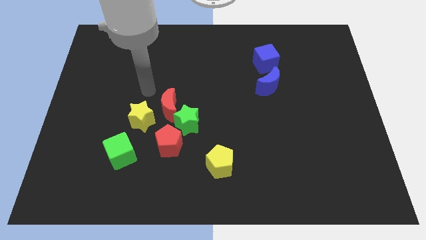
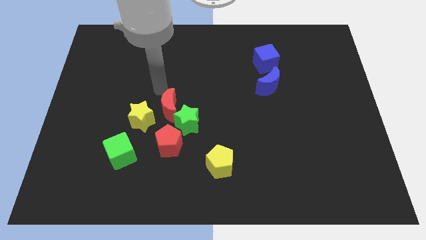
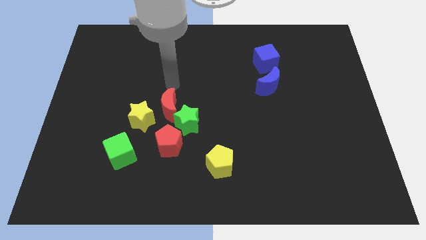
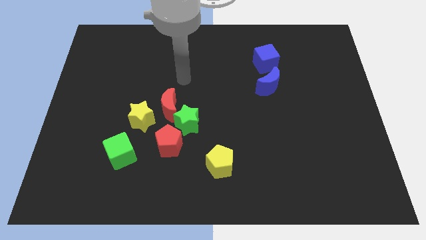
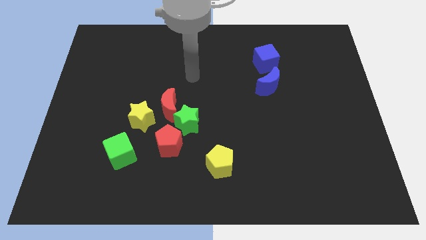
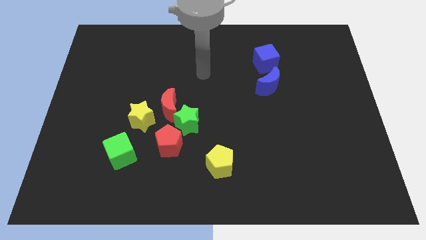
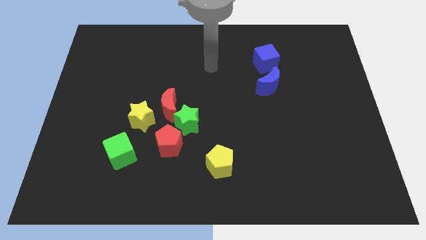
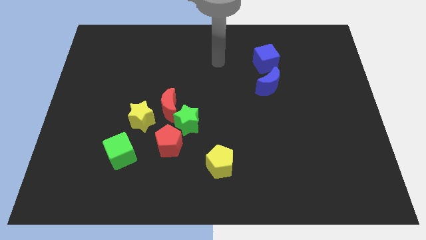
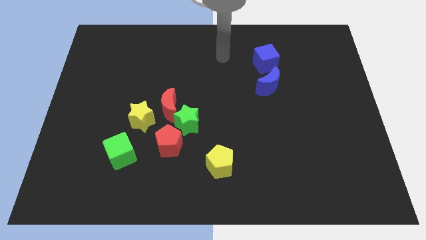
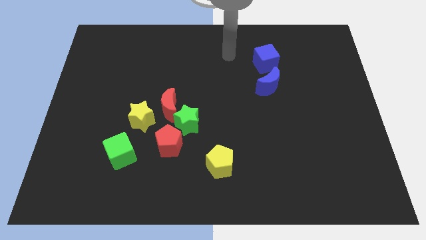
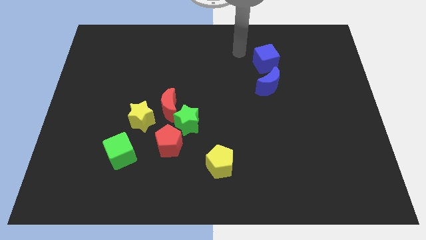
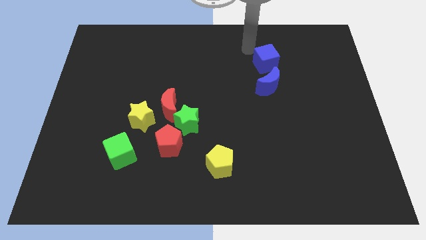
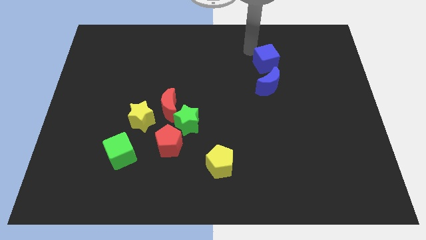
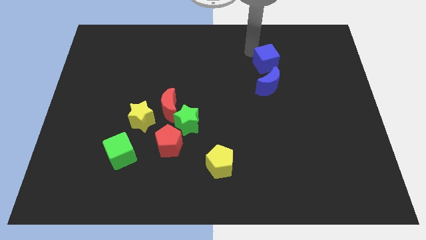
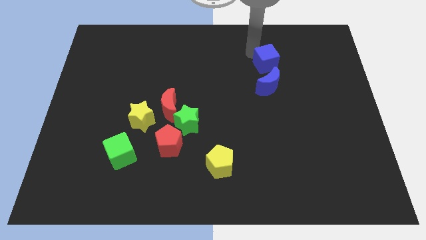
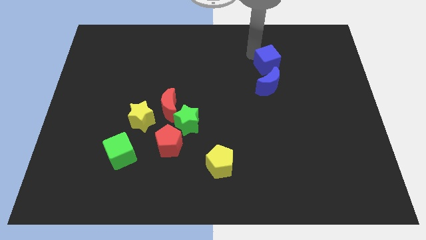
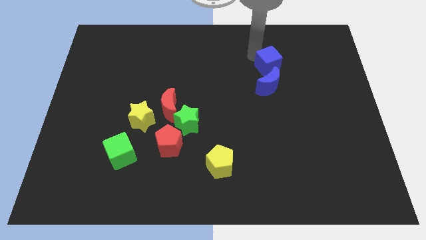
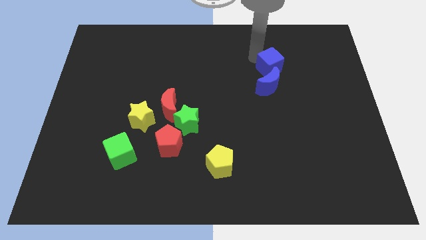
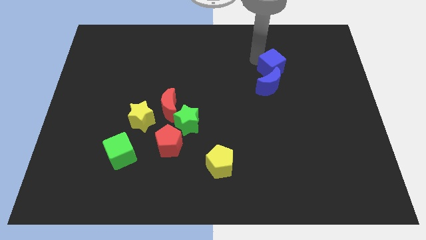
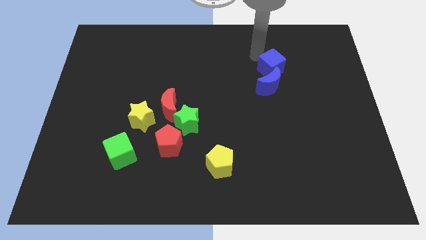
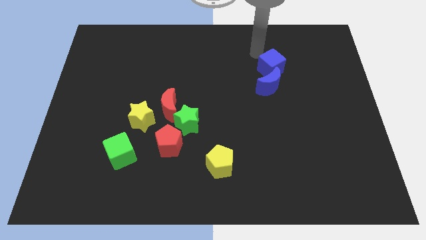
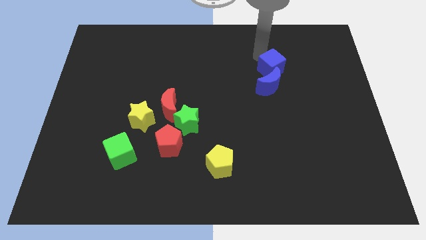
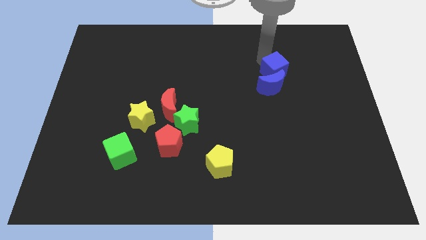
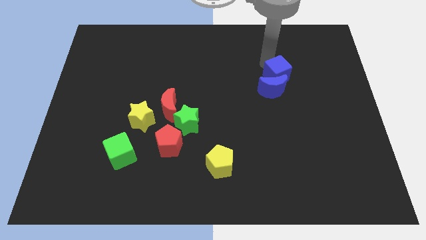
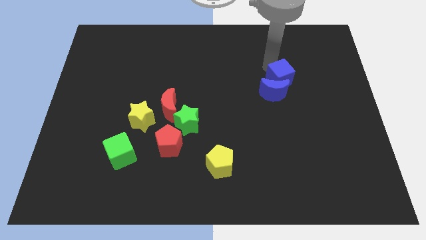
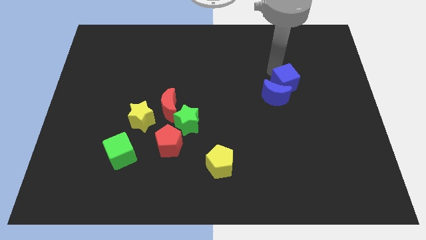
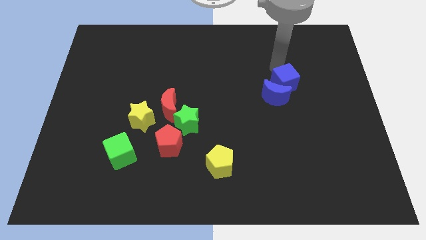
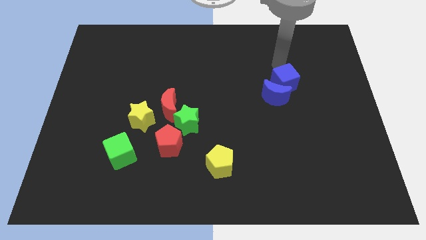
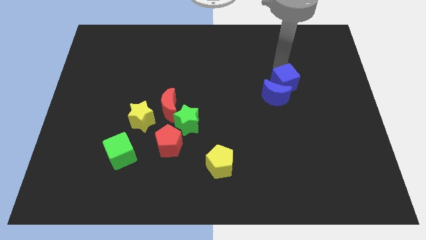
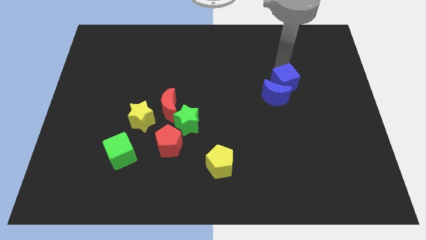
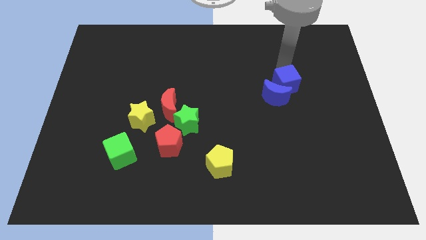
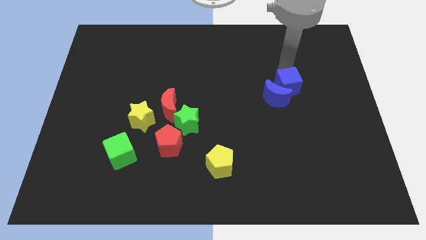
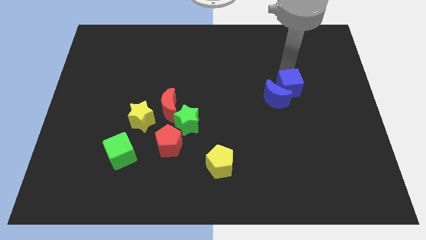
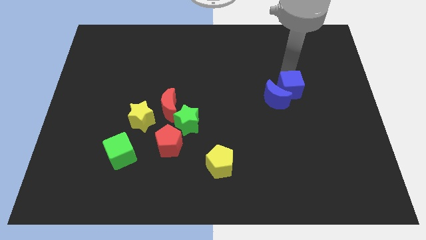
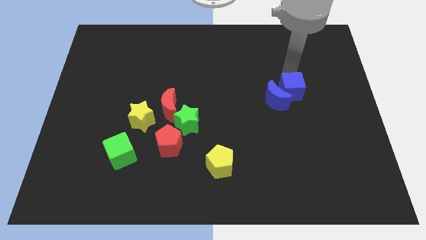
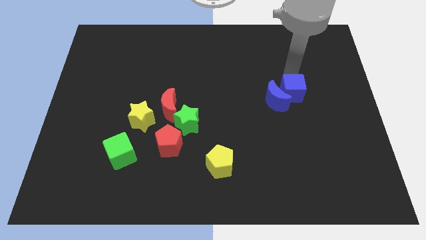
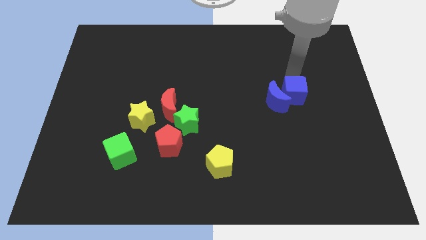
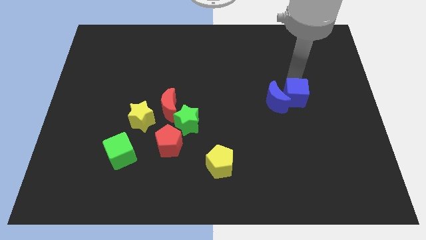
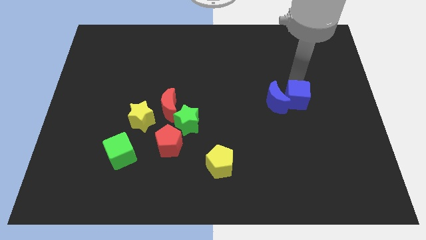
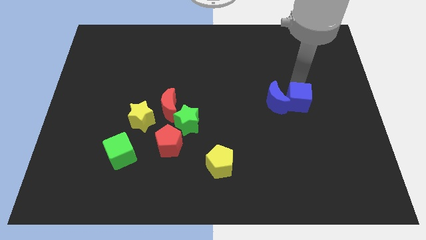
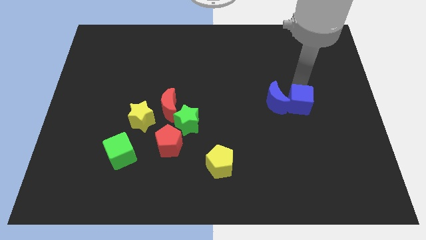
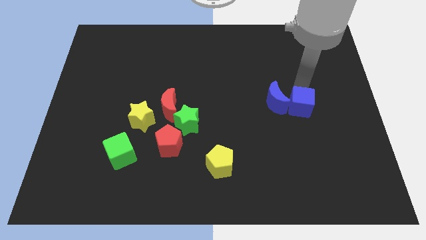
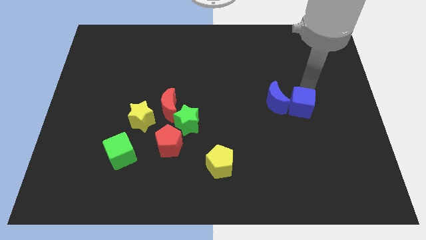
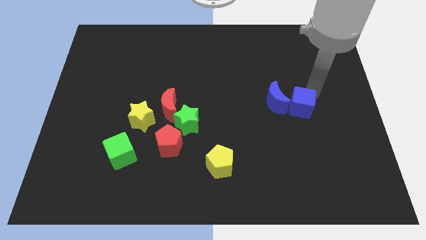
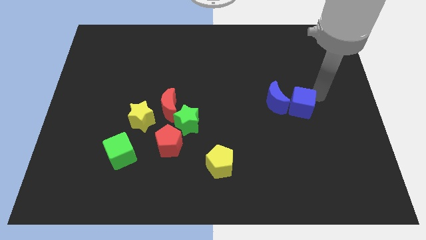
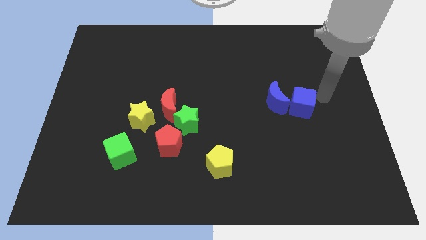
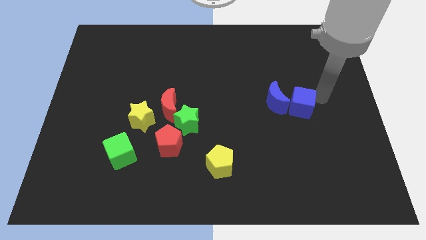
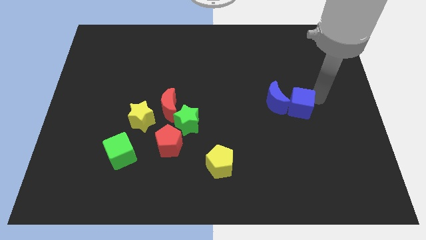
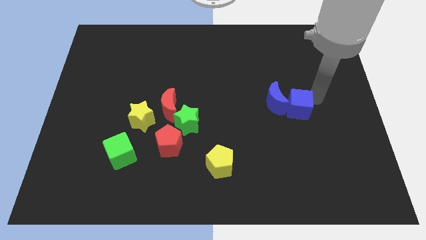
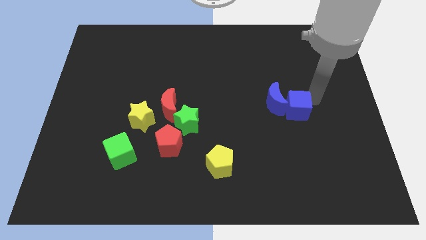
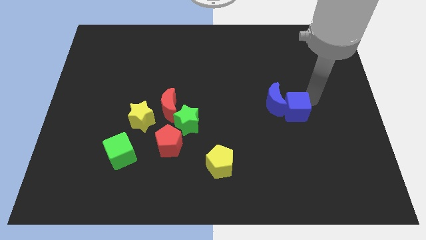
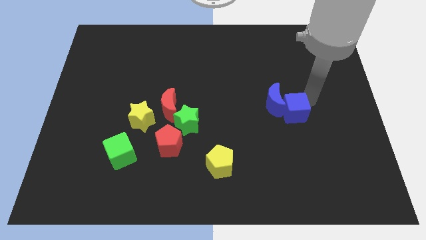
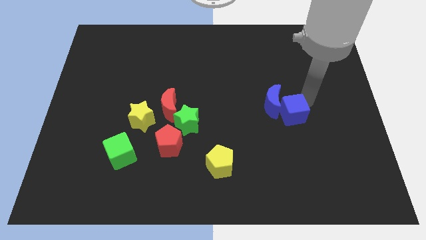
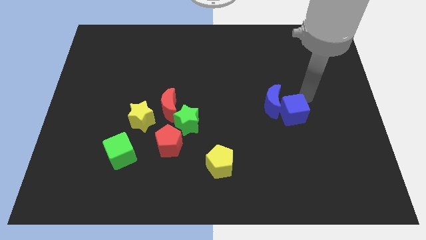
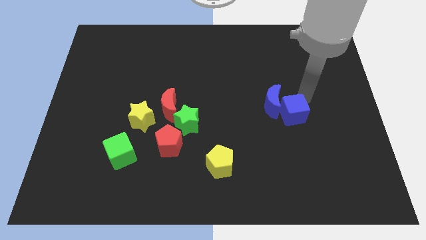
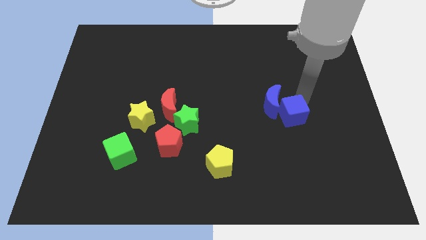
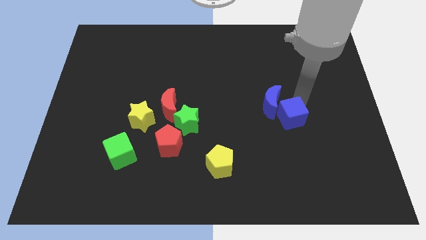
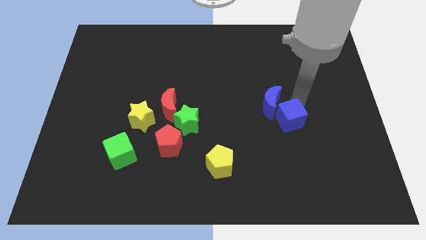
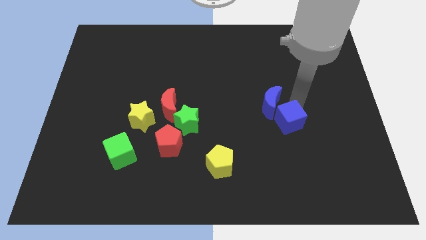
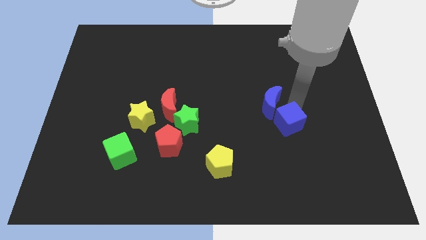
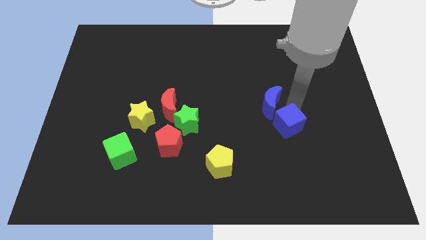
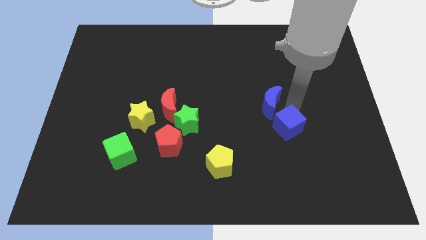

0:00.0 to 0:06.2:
move the blue cube down

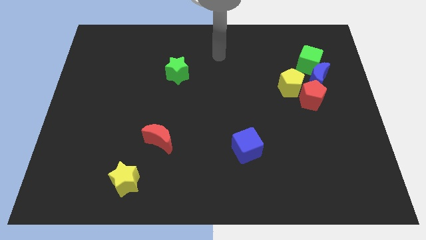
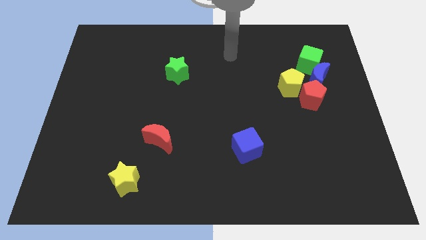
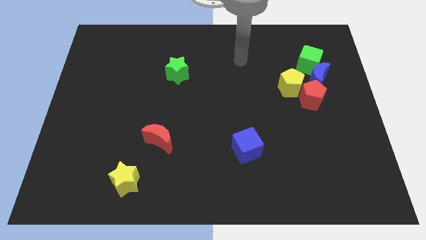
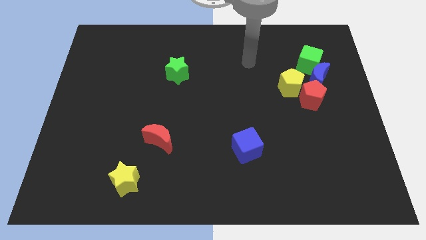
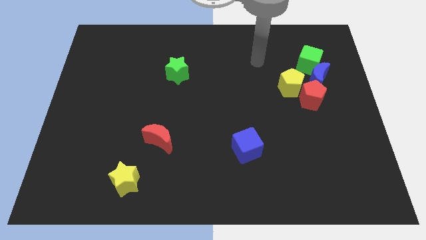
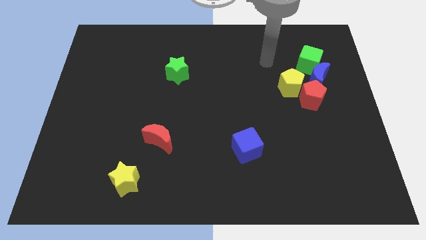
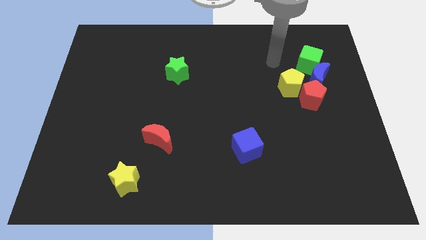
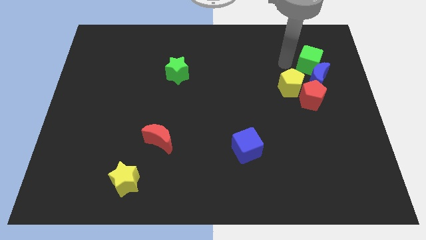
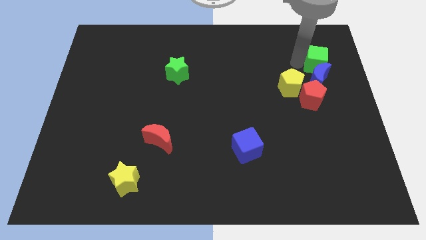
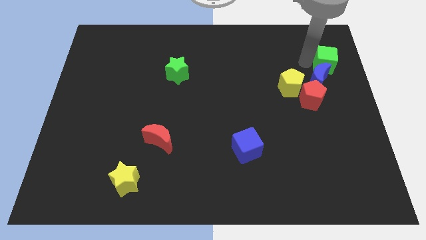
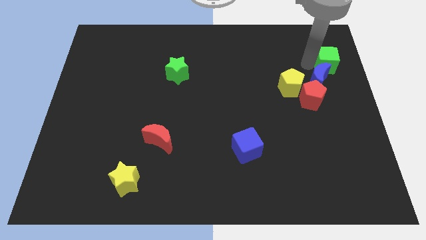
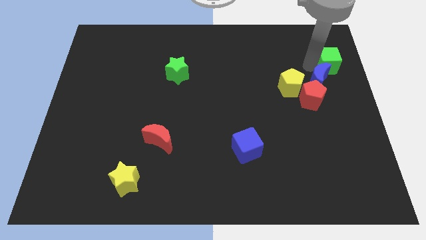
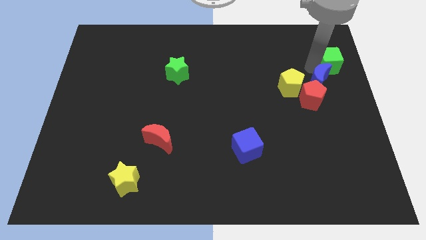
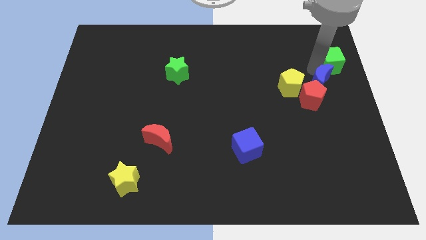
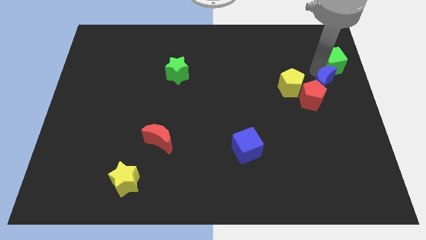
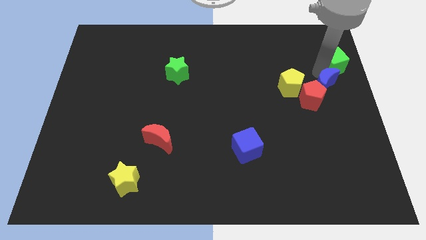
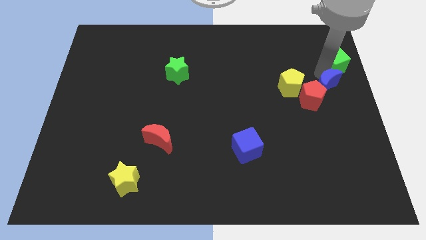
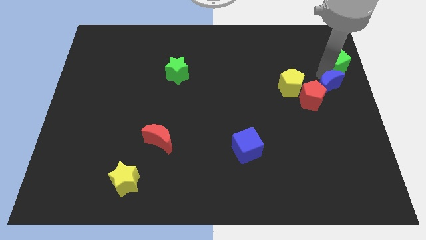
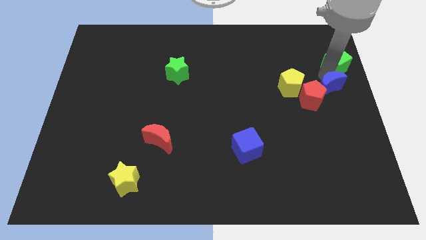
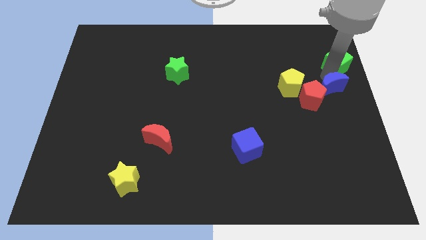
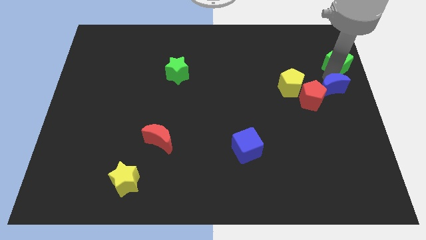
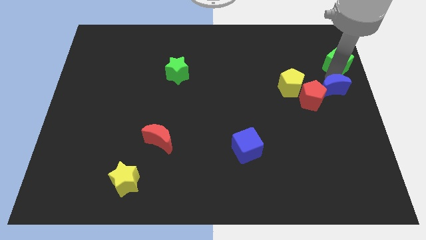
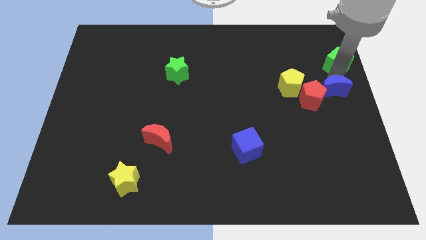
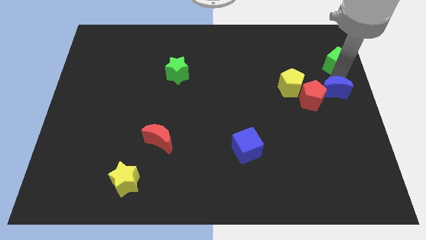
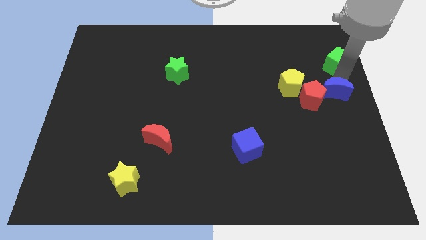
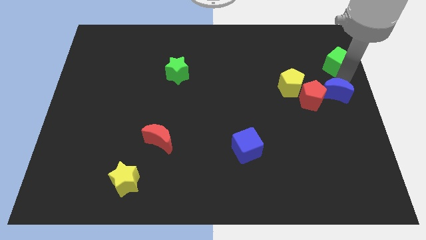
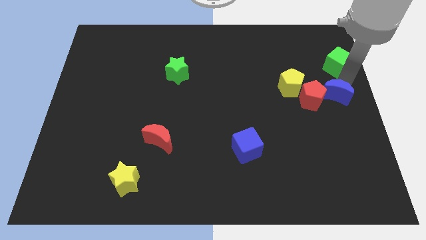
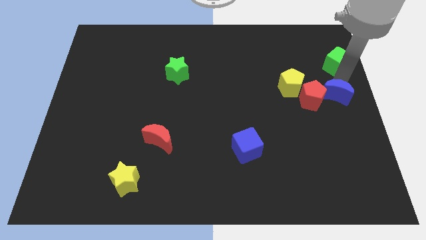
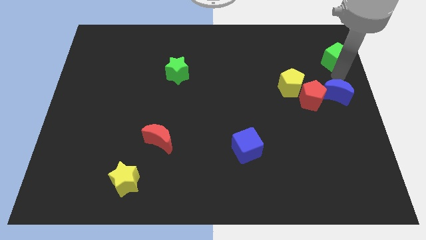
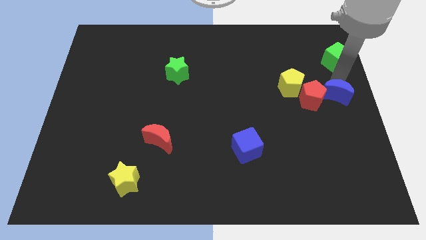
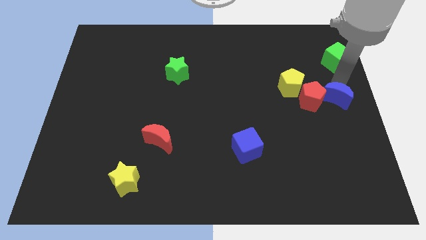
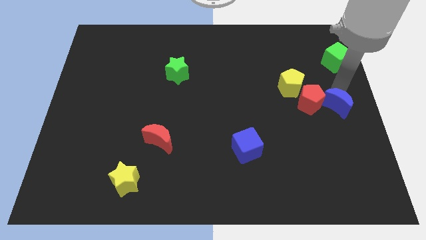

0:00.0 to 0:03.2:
slightly slide the blue moon downwards
